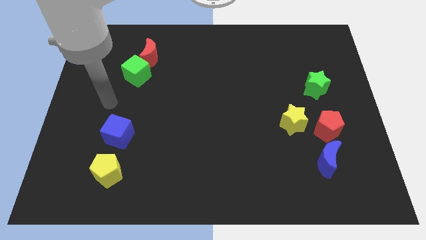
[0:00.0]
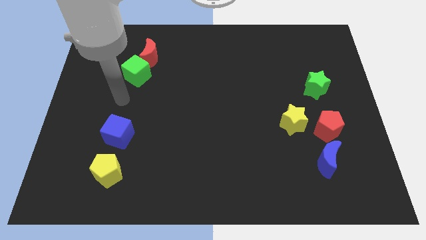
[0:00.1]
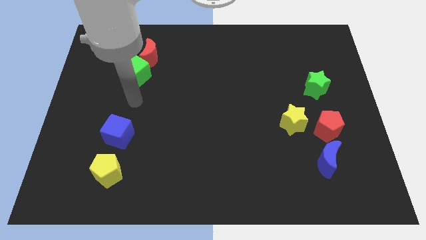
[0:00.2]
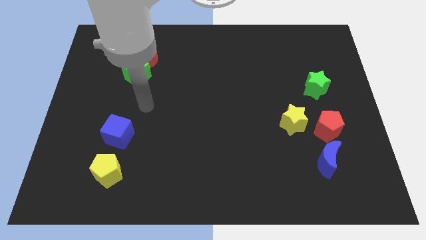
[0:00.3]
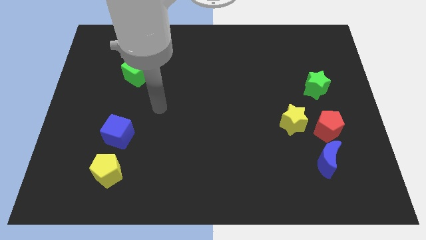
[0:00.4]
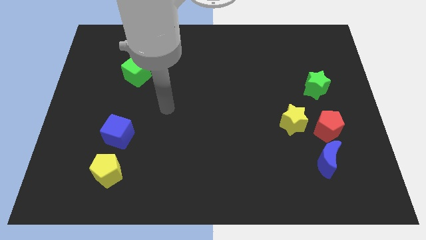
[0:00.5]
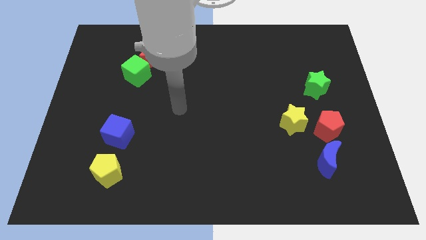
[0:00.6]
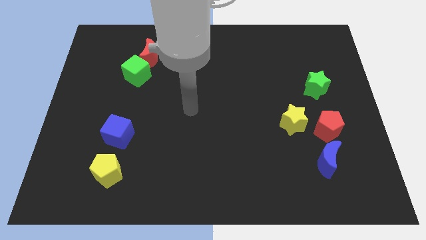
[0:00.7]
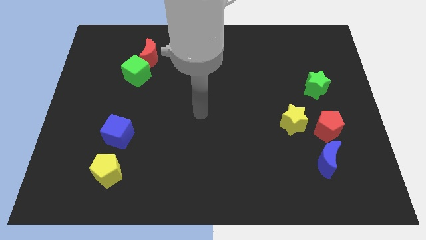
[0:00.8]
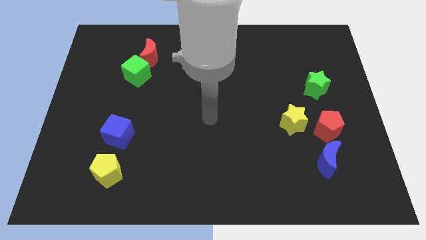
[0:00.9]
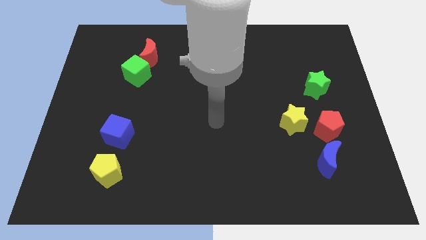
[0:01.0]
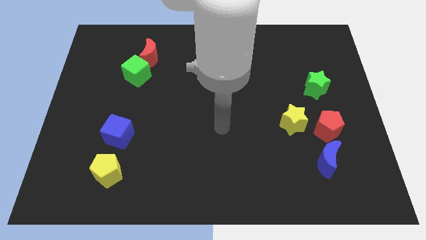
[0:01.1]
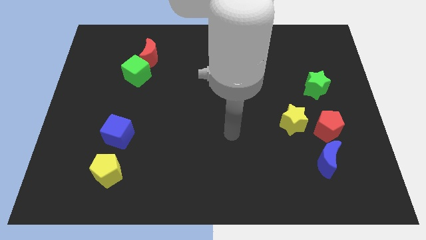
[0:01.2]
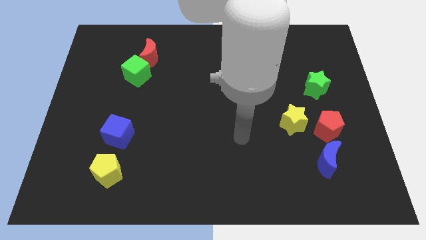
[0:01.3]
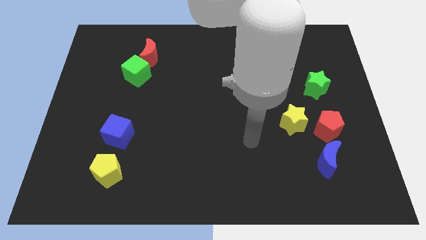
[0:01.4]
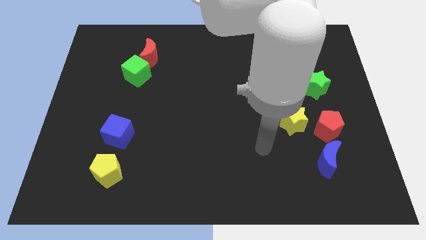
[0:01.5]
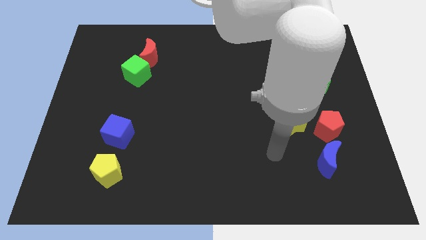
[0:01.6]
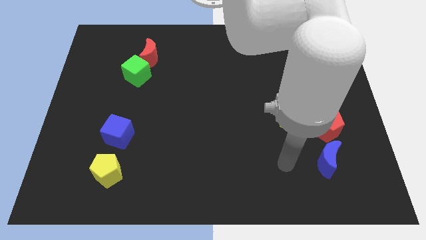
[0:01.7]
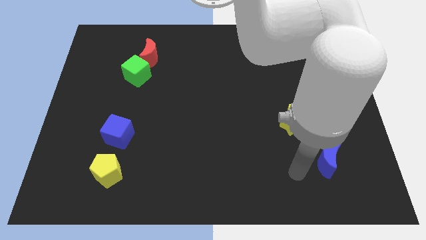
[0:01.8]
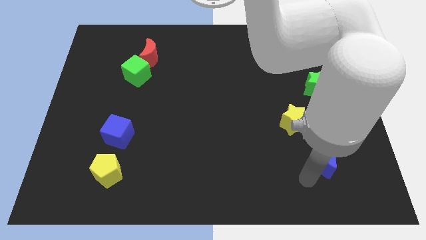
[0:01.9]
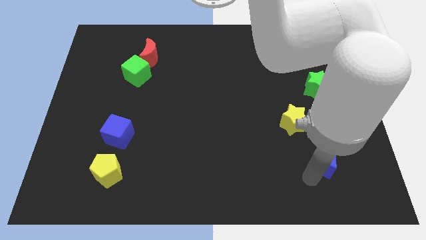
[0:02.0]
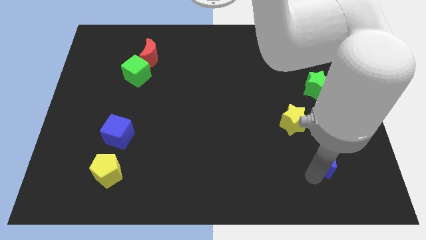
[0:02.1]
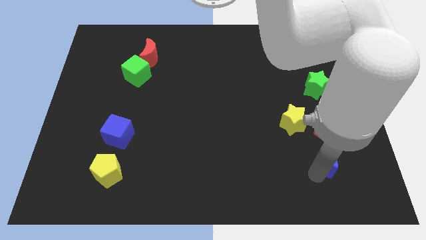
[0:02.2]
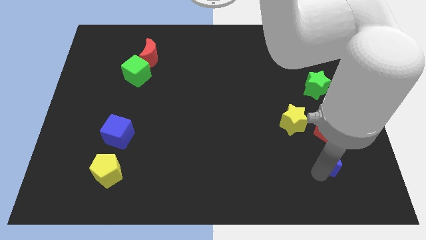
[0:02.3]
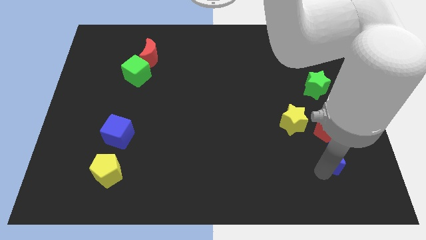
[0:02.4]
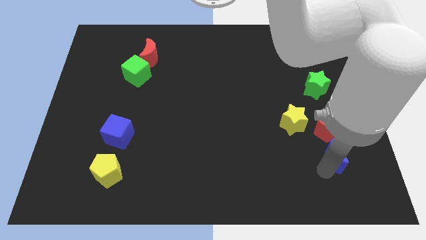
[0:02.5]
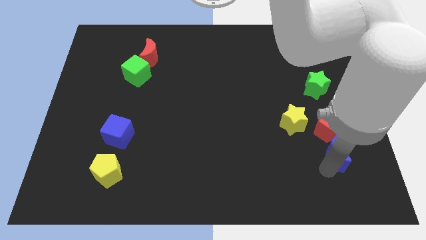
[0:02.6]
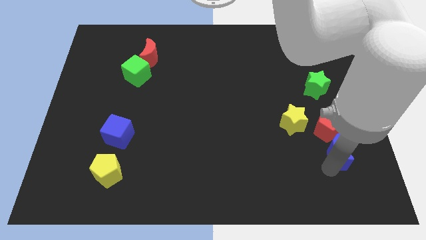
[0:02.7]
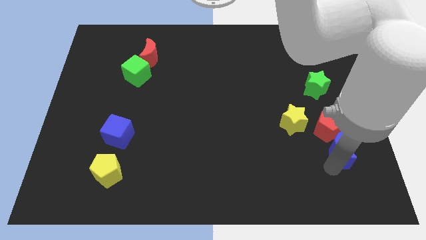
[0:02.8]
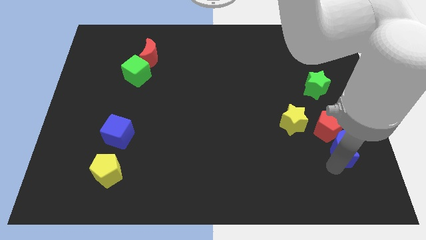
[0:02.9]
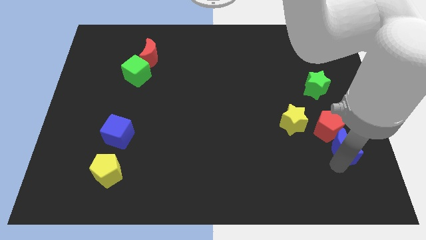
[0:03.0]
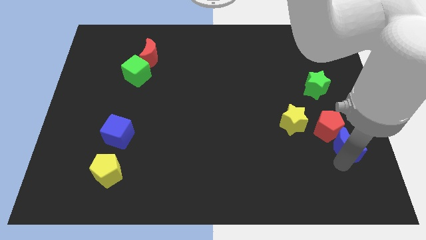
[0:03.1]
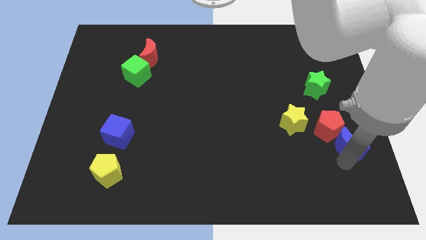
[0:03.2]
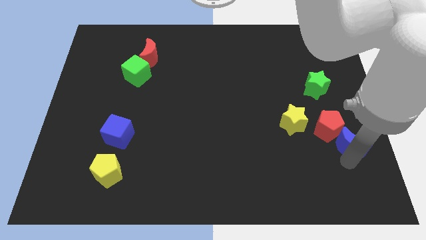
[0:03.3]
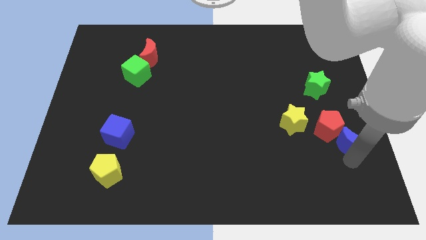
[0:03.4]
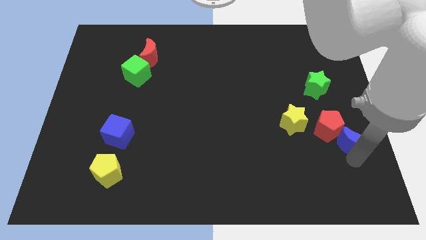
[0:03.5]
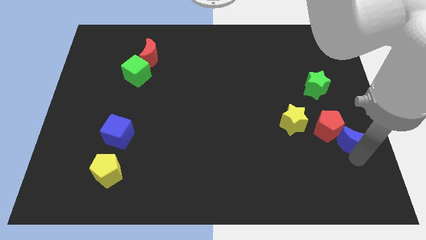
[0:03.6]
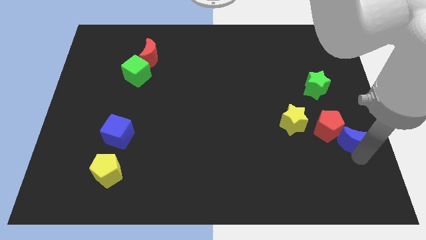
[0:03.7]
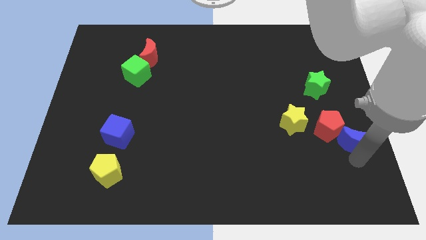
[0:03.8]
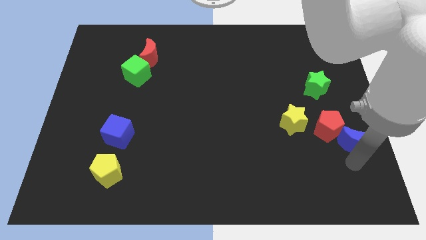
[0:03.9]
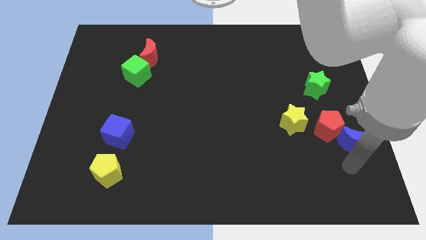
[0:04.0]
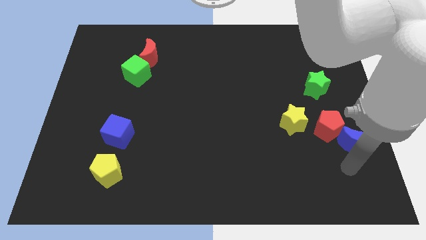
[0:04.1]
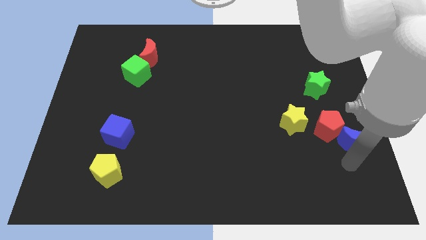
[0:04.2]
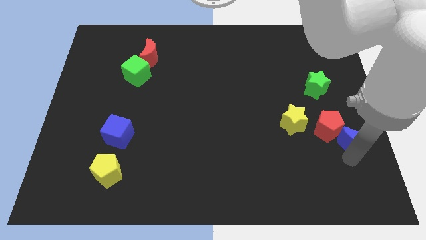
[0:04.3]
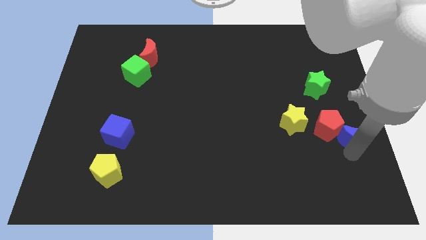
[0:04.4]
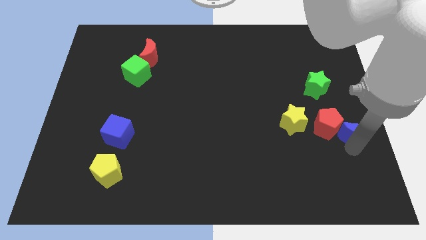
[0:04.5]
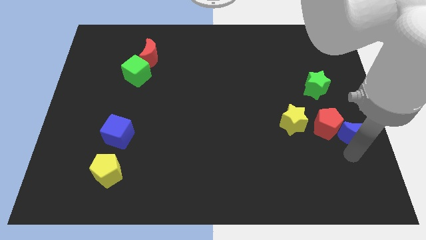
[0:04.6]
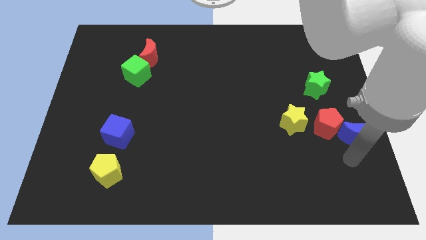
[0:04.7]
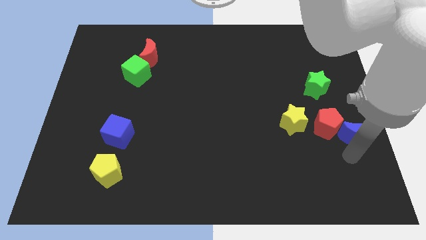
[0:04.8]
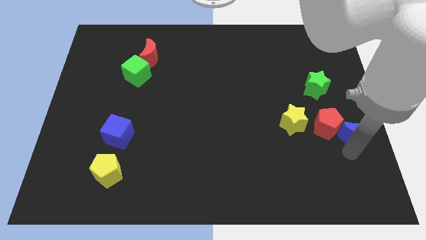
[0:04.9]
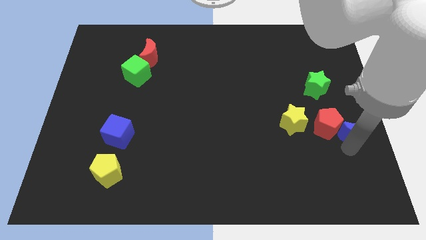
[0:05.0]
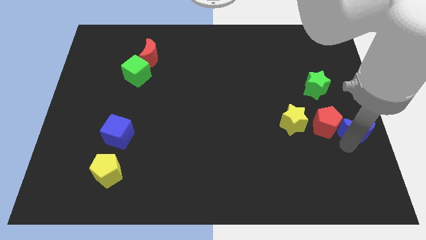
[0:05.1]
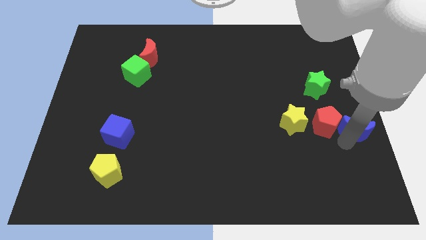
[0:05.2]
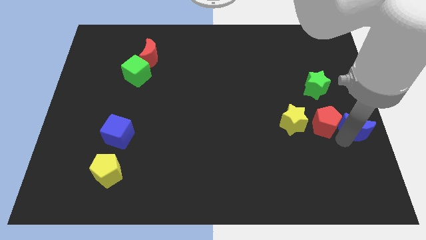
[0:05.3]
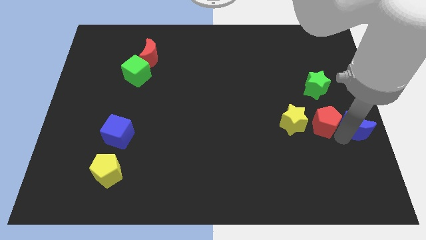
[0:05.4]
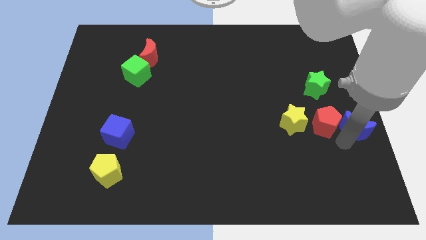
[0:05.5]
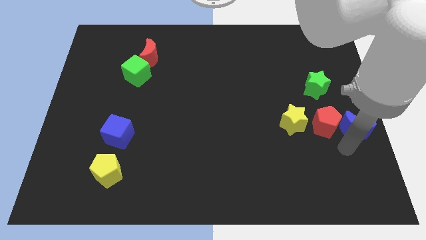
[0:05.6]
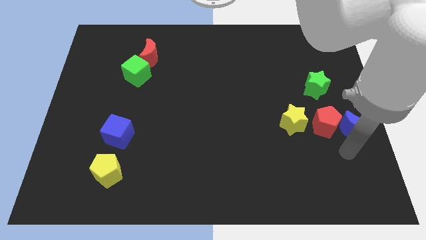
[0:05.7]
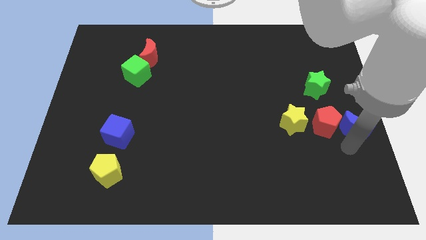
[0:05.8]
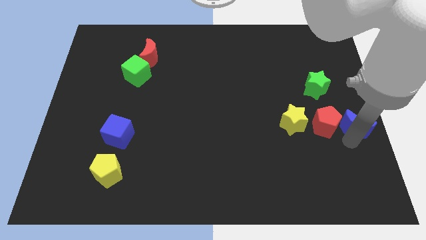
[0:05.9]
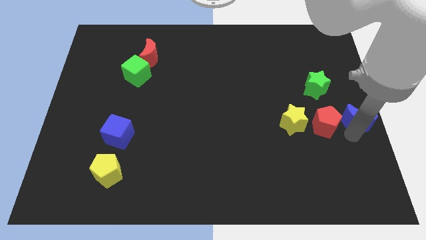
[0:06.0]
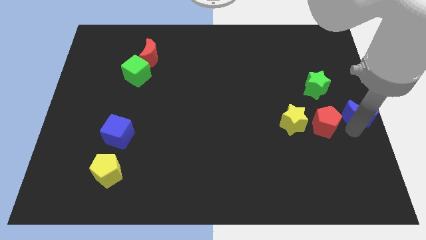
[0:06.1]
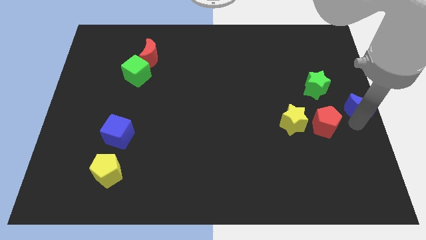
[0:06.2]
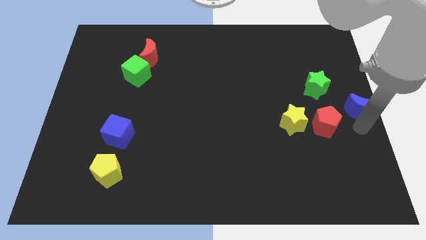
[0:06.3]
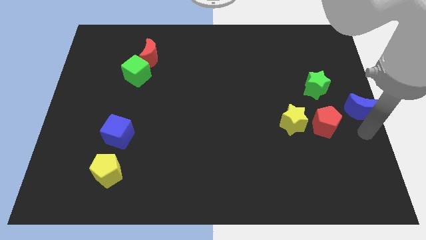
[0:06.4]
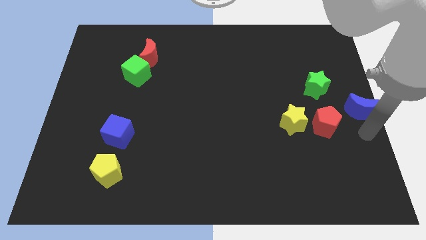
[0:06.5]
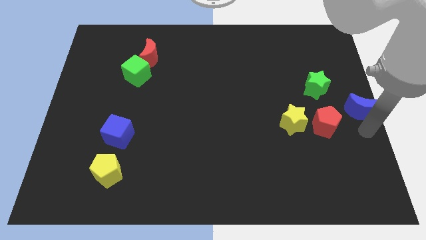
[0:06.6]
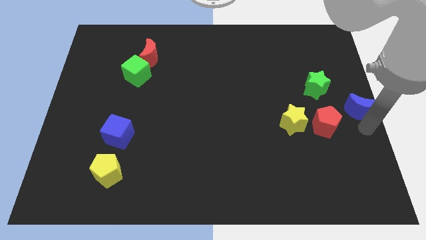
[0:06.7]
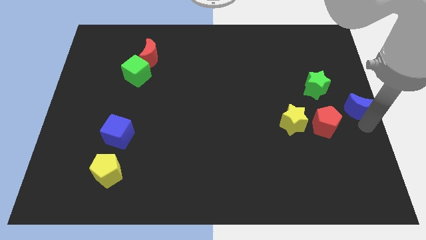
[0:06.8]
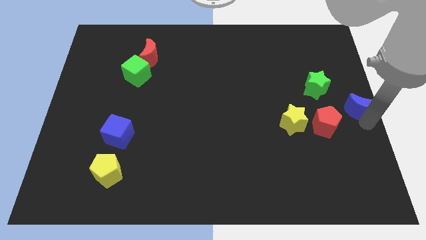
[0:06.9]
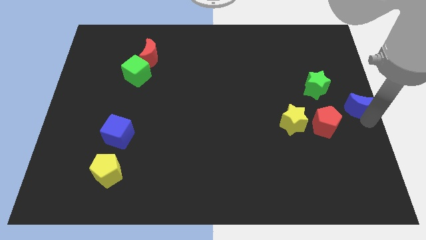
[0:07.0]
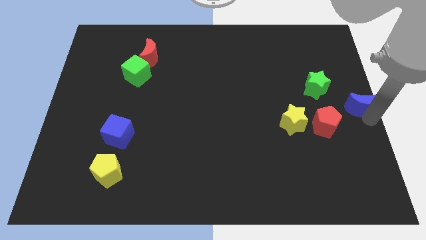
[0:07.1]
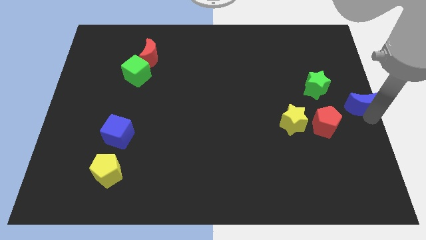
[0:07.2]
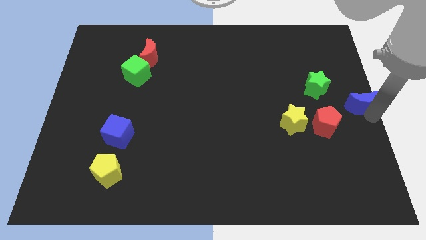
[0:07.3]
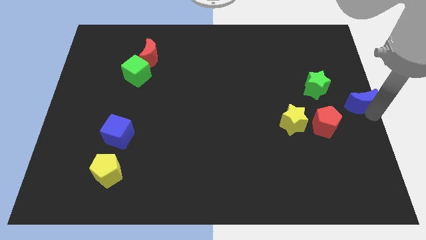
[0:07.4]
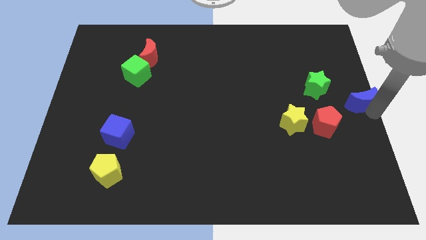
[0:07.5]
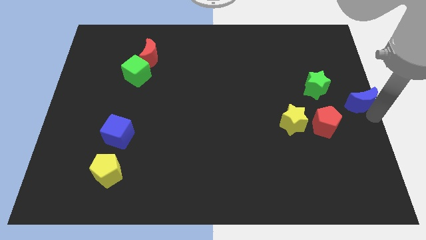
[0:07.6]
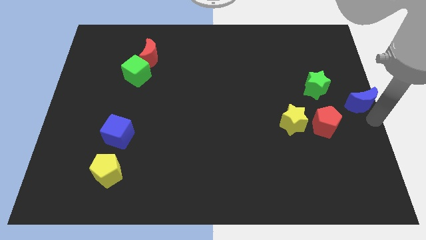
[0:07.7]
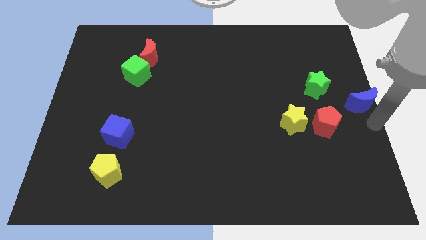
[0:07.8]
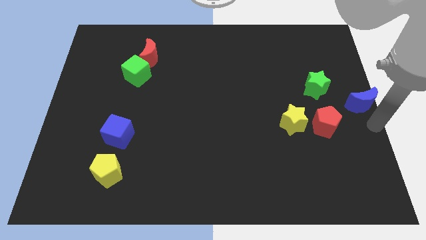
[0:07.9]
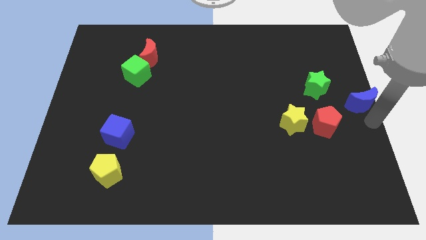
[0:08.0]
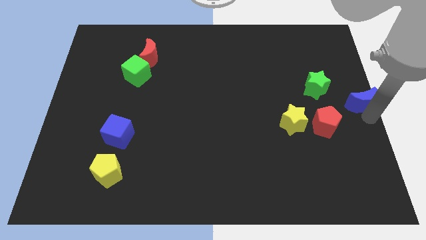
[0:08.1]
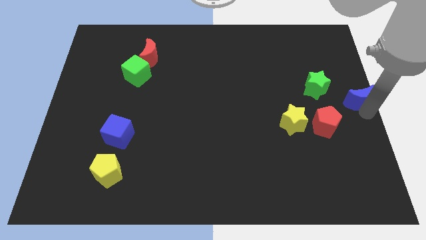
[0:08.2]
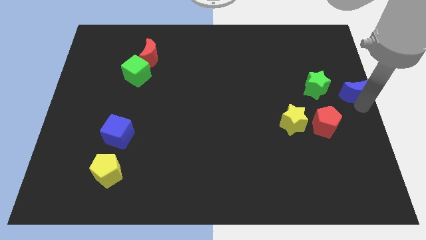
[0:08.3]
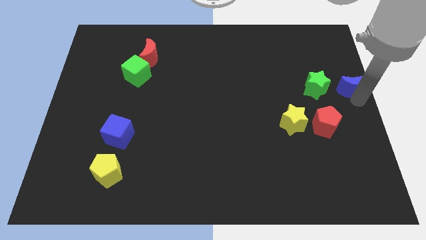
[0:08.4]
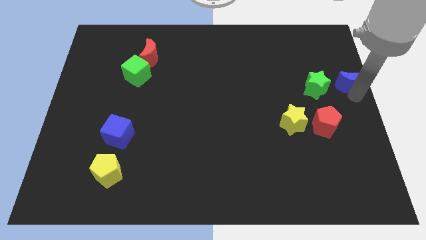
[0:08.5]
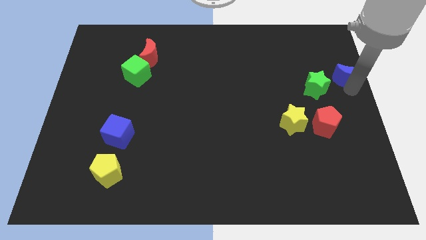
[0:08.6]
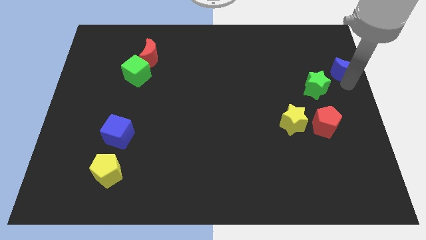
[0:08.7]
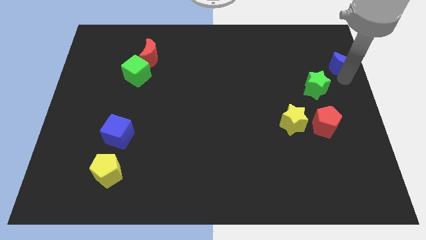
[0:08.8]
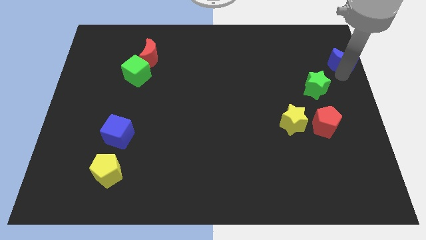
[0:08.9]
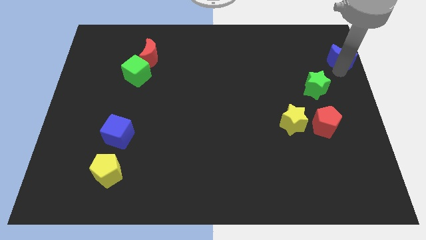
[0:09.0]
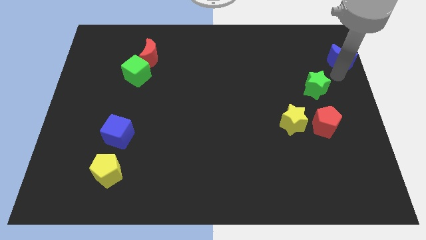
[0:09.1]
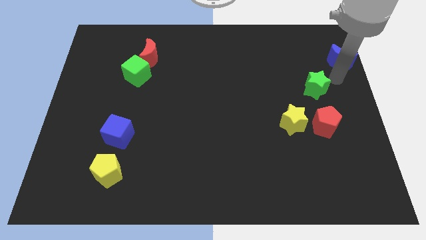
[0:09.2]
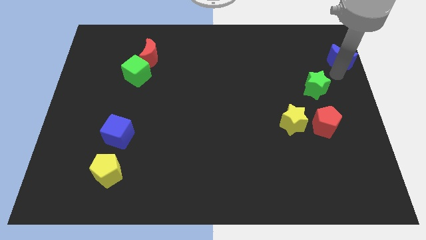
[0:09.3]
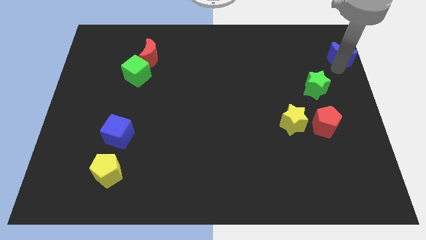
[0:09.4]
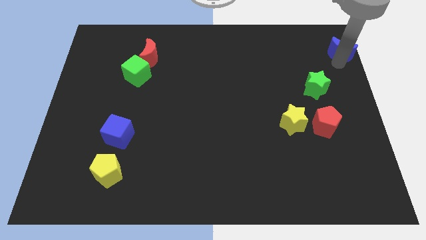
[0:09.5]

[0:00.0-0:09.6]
put the blue moon to the top right corner
